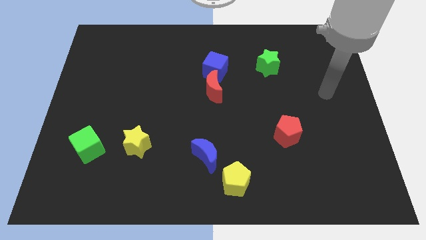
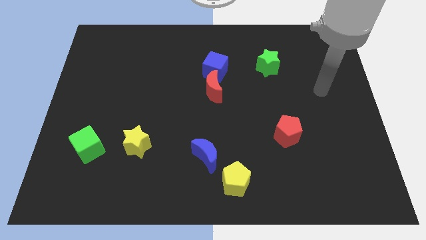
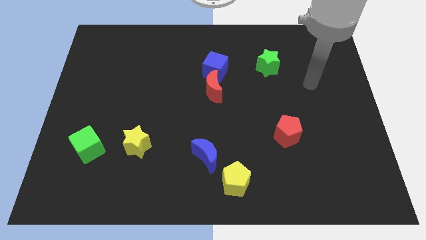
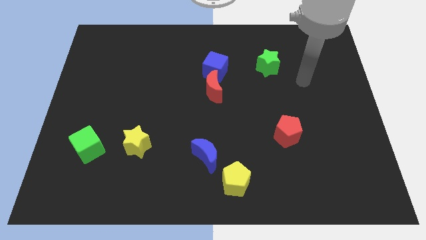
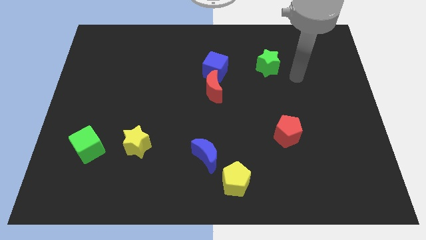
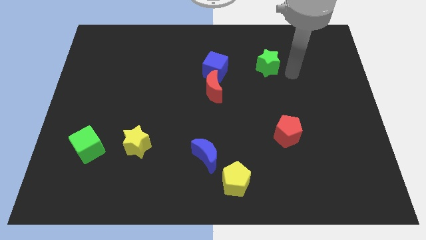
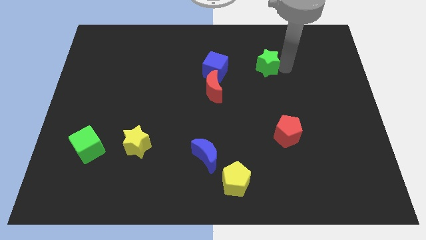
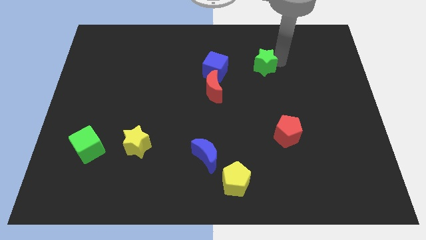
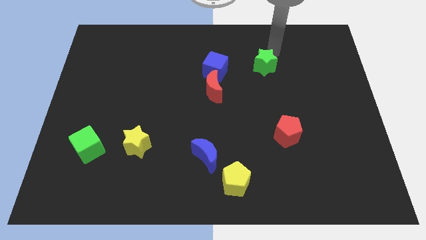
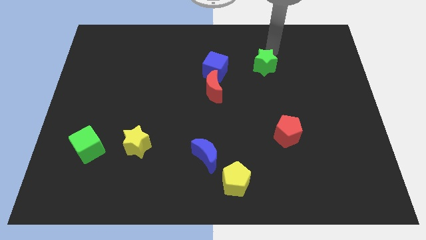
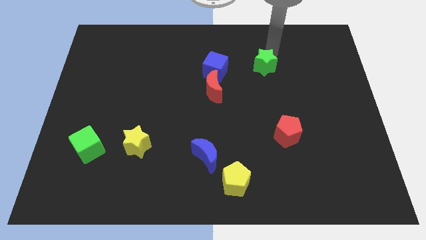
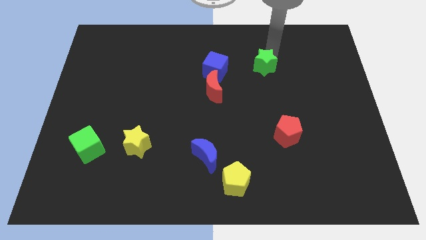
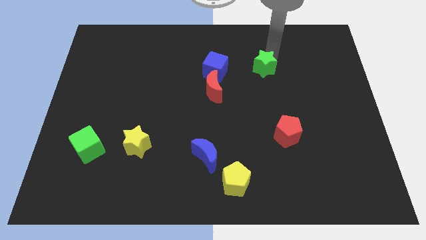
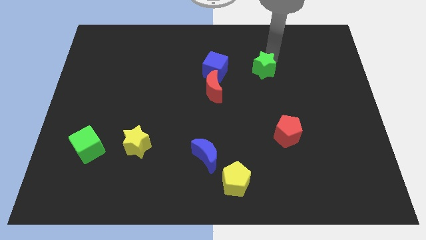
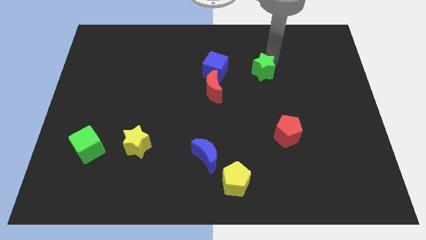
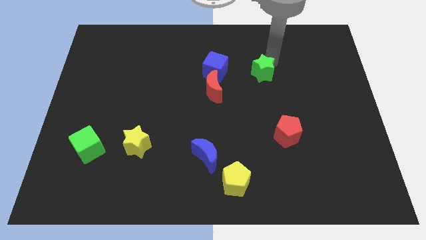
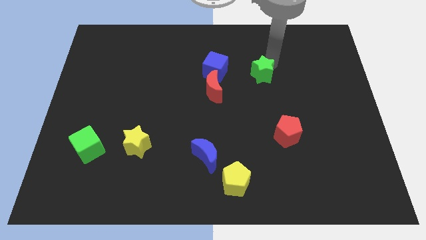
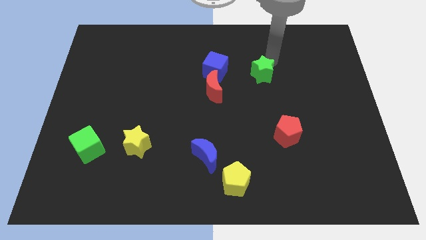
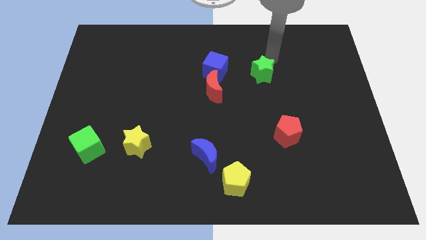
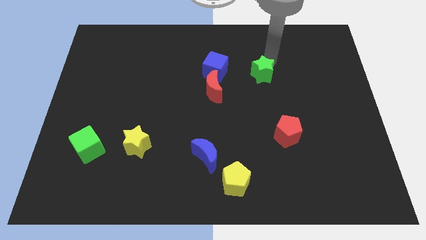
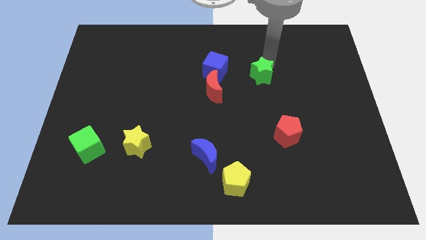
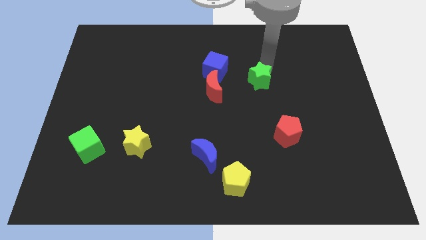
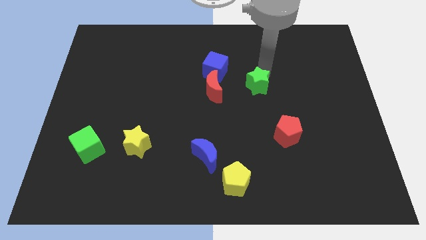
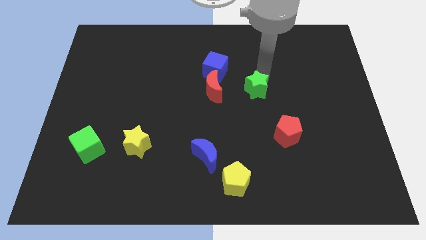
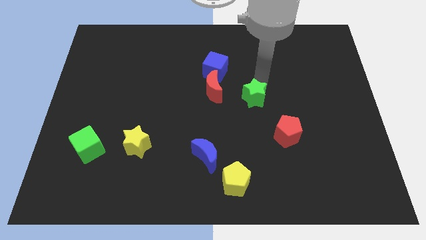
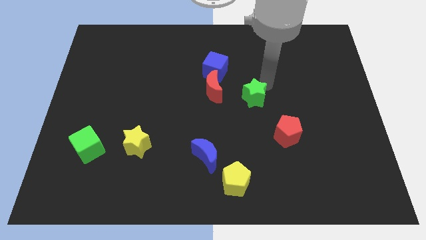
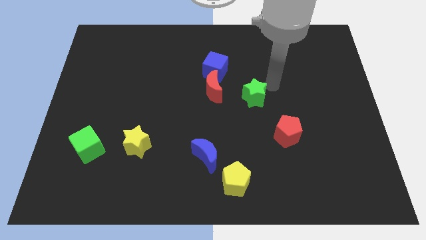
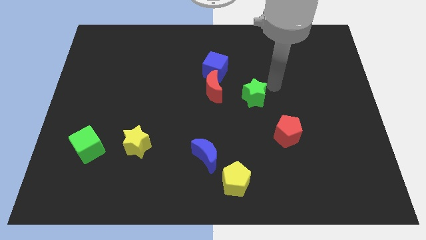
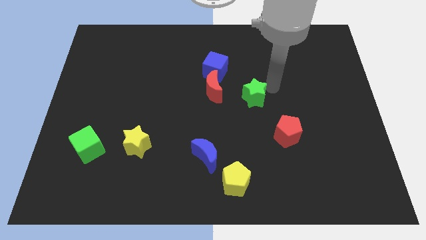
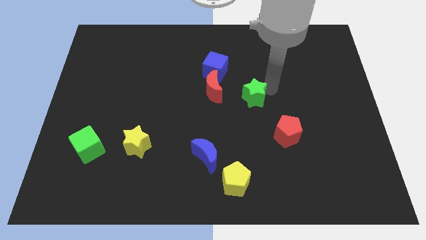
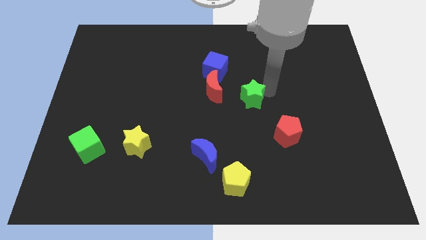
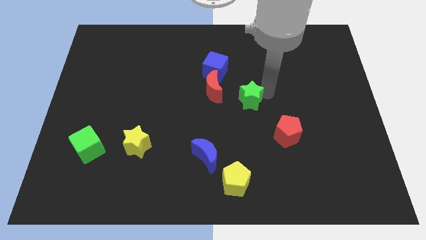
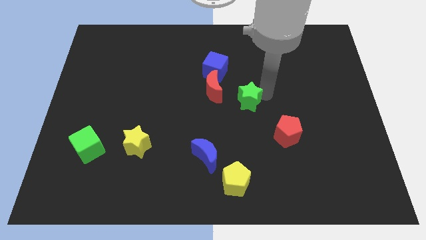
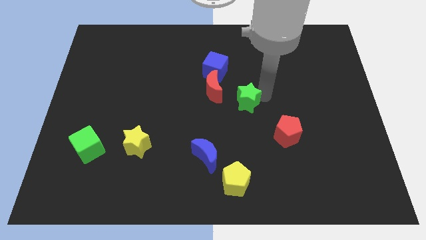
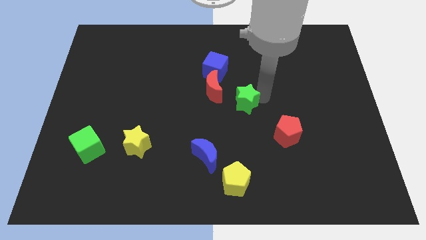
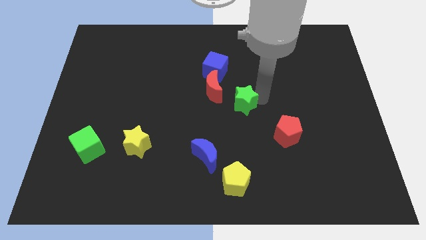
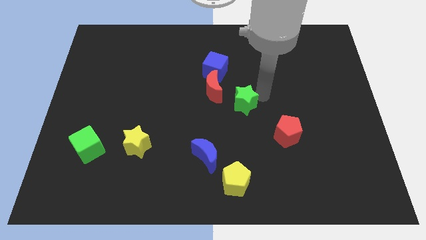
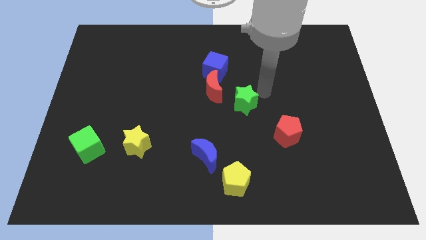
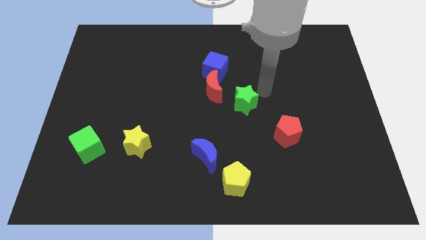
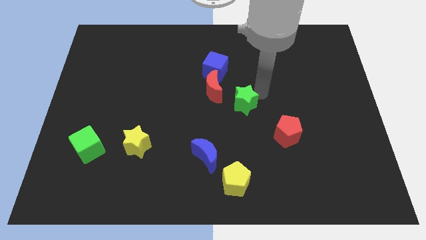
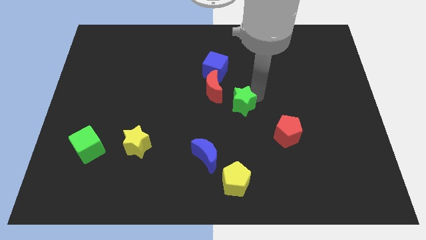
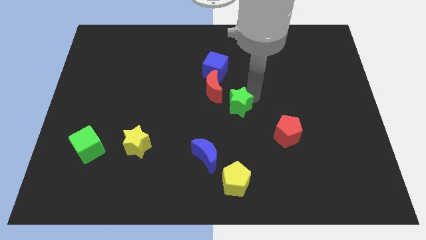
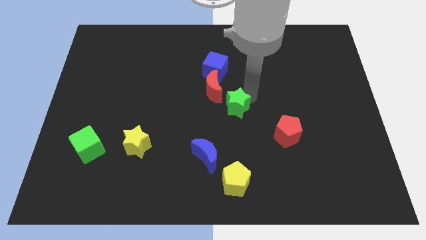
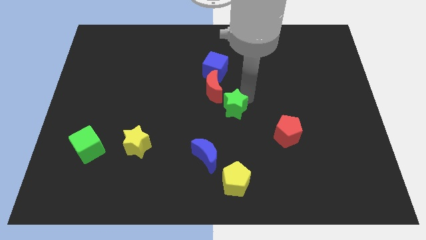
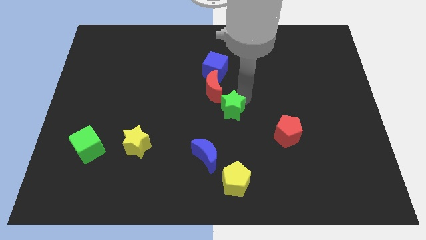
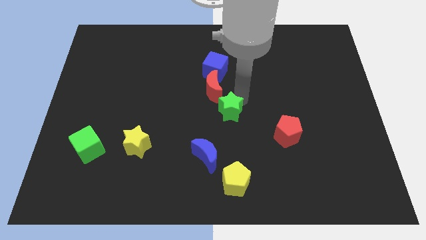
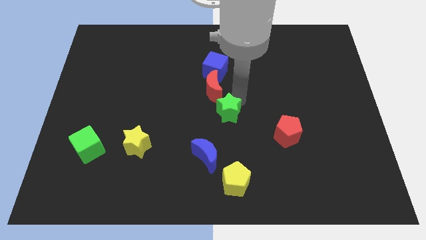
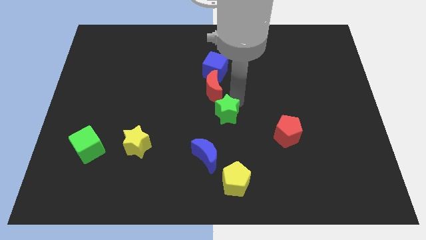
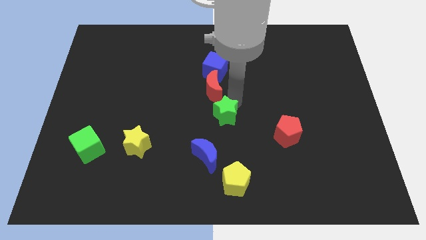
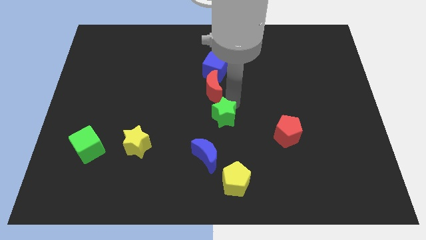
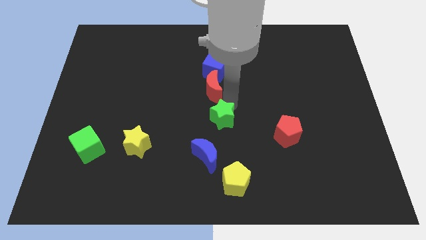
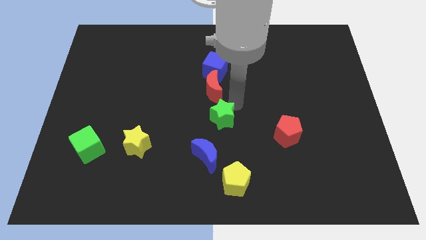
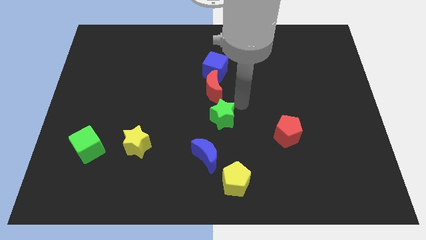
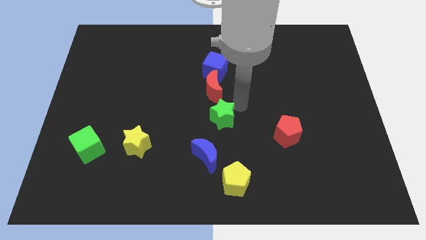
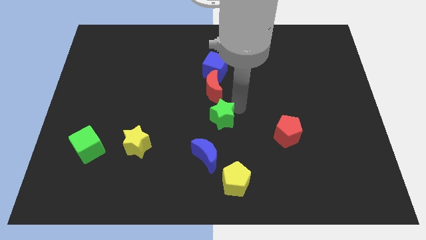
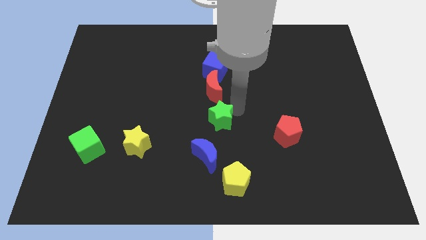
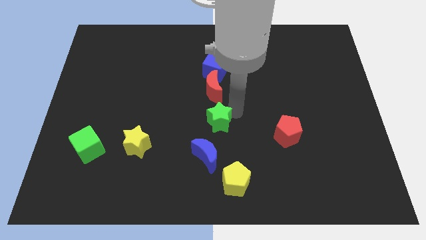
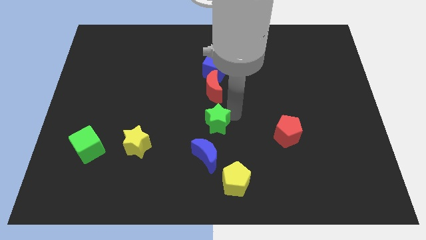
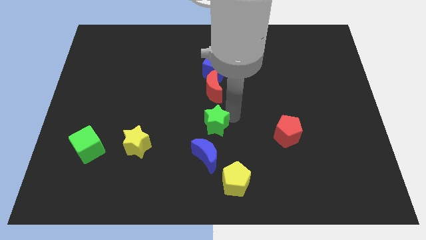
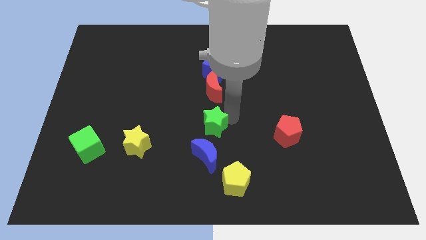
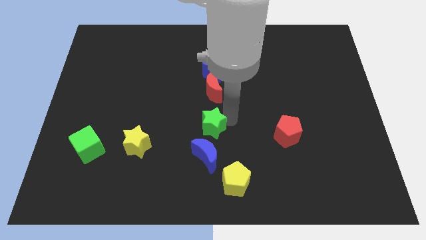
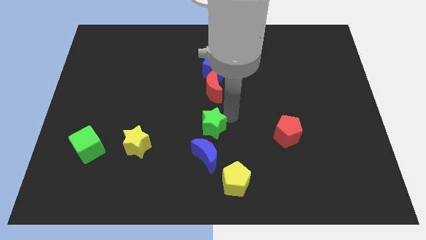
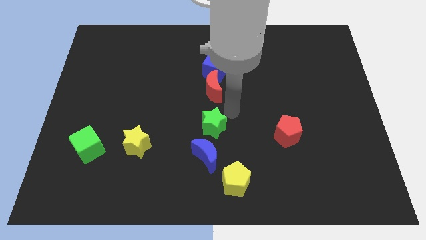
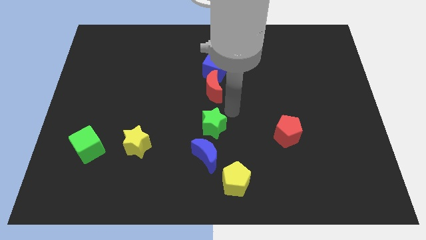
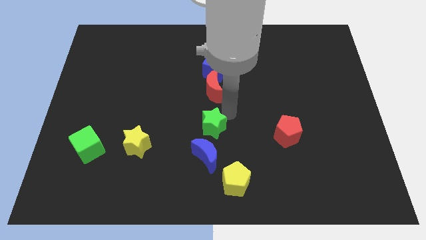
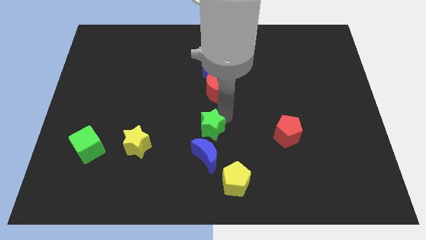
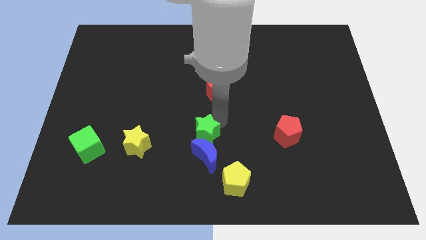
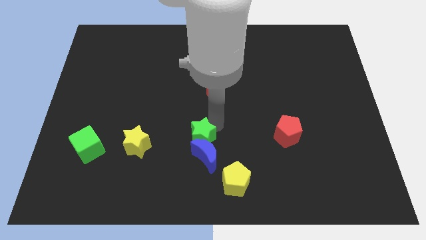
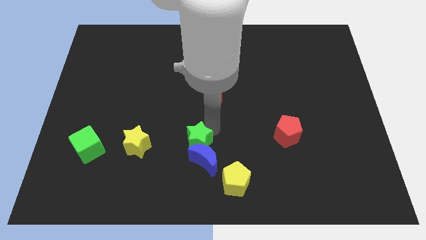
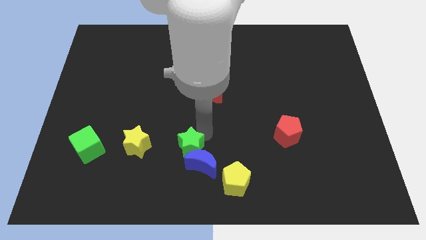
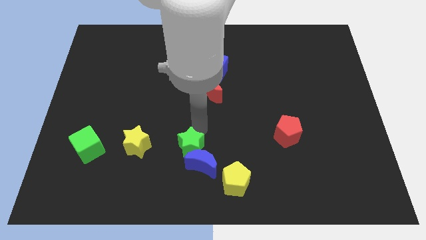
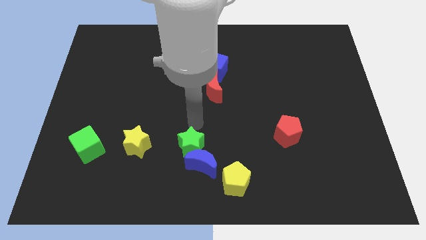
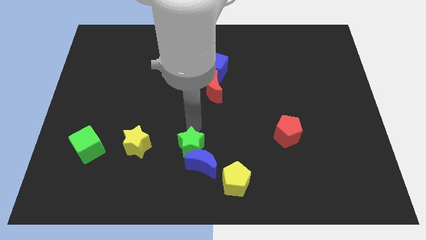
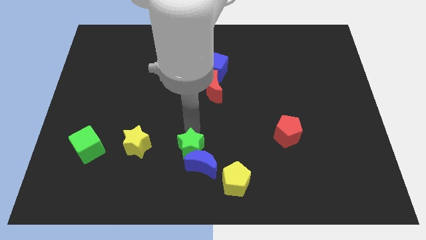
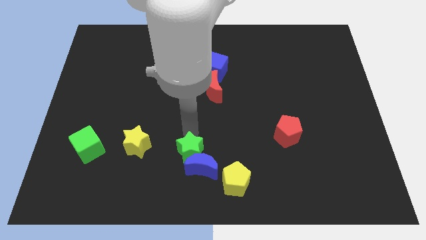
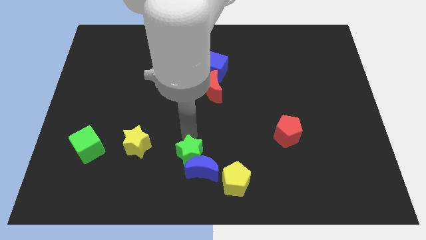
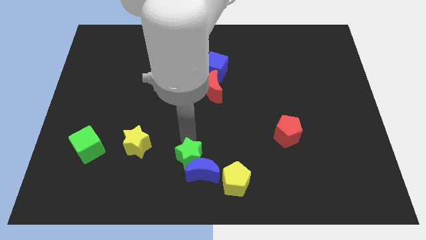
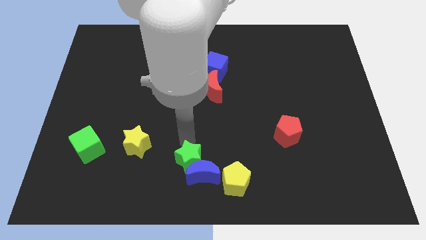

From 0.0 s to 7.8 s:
move the green star left of the yellow pentagon
